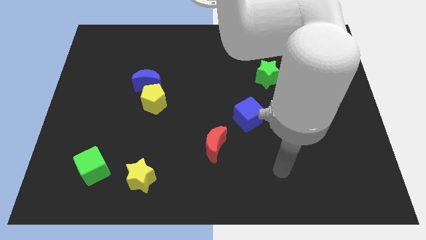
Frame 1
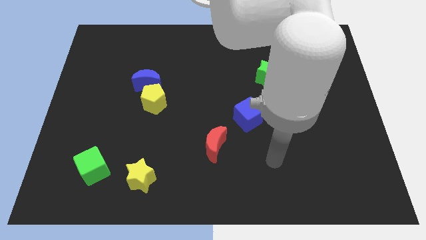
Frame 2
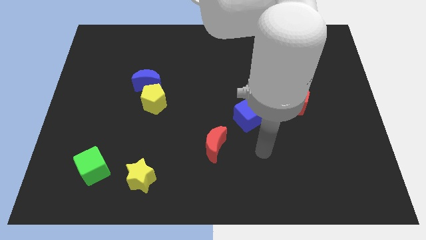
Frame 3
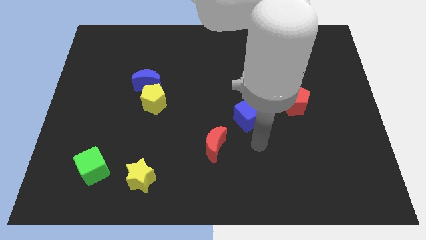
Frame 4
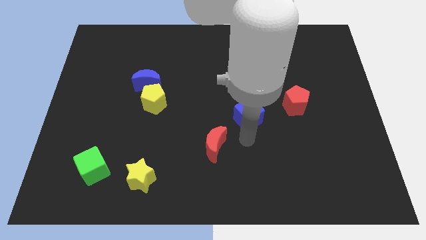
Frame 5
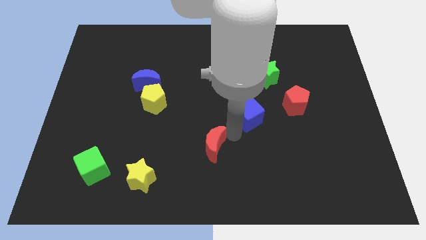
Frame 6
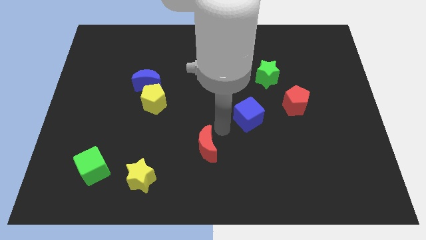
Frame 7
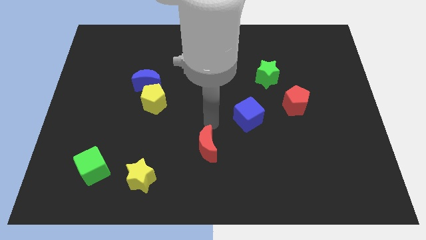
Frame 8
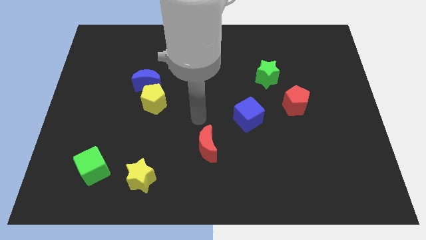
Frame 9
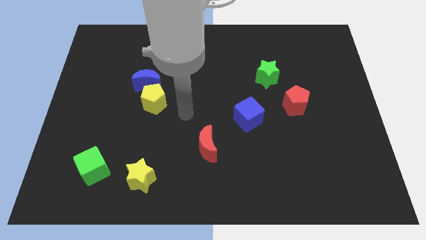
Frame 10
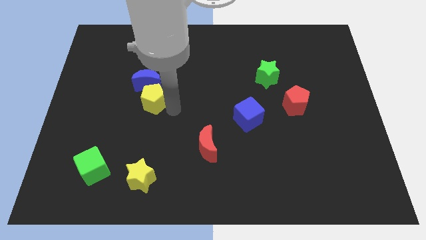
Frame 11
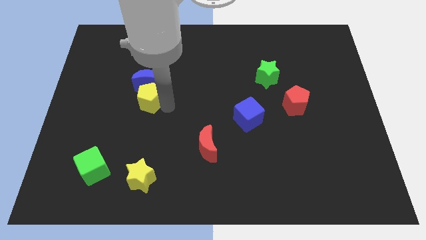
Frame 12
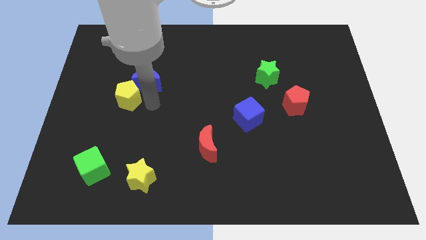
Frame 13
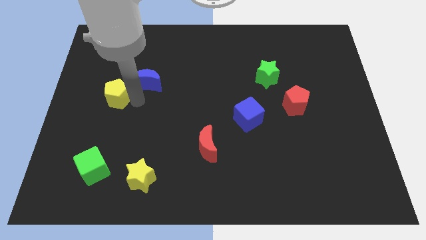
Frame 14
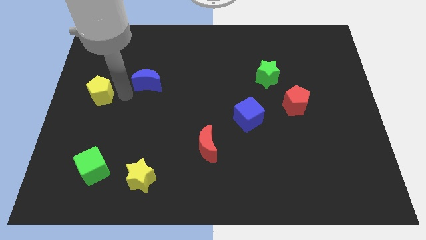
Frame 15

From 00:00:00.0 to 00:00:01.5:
separate the blue moon from the yellow pentagon

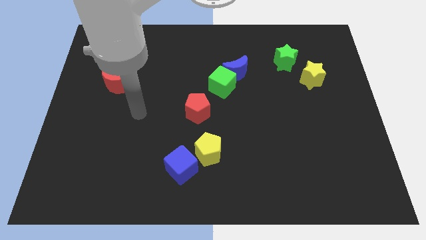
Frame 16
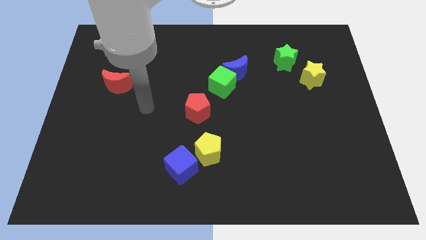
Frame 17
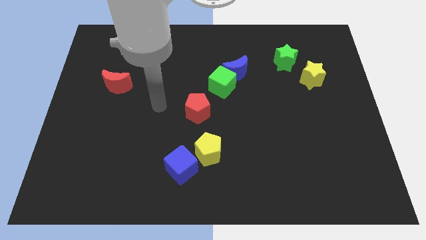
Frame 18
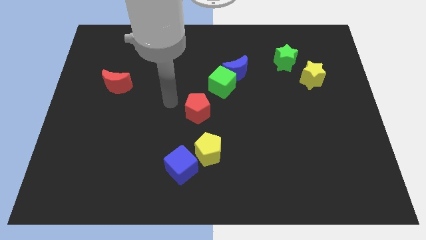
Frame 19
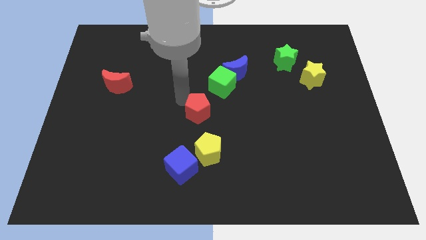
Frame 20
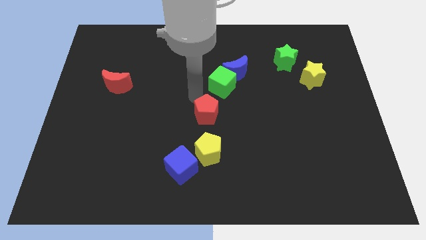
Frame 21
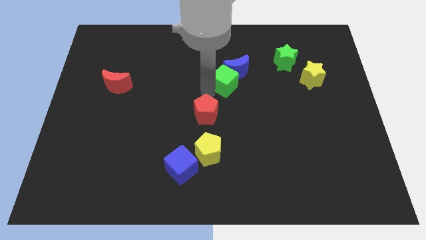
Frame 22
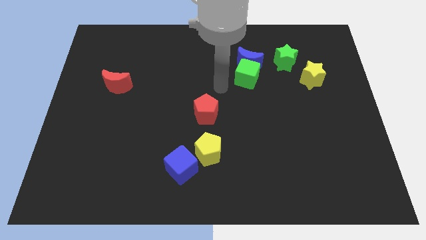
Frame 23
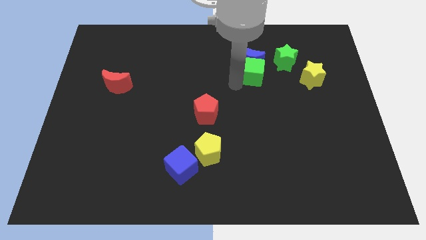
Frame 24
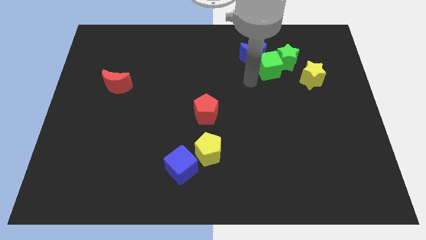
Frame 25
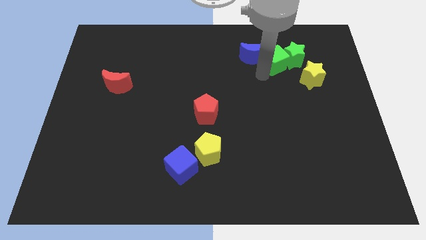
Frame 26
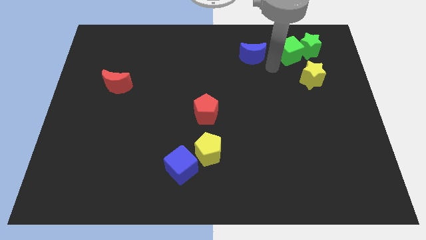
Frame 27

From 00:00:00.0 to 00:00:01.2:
separate the blue moon from the green cube

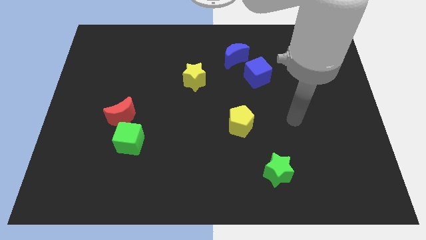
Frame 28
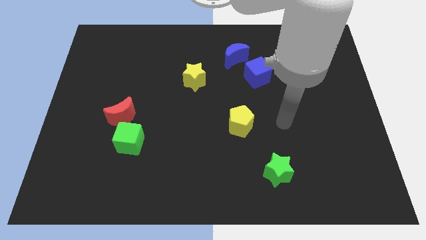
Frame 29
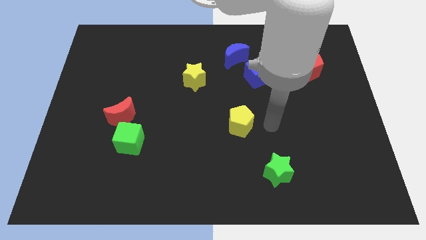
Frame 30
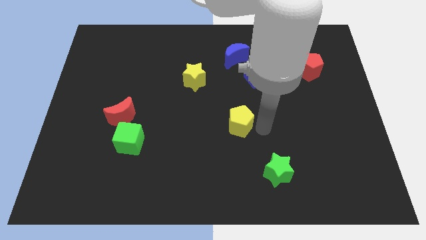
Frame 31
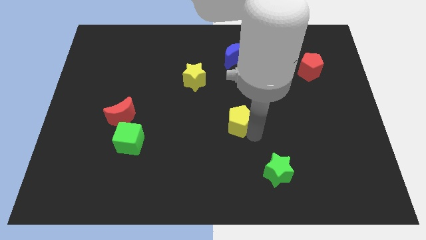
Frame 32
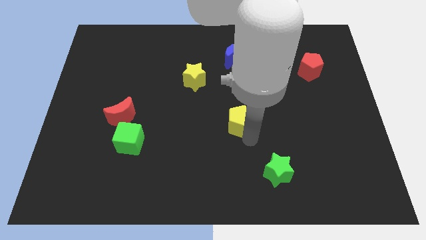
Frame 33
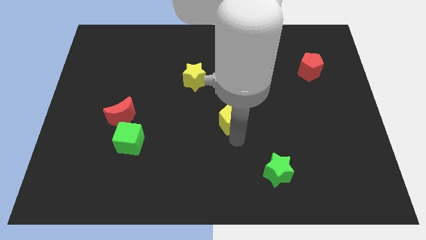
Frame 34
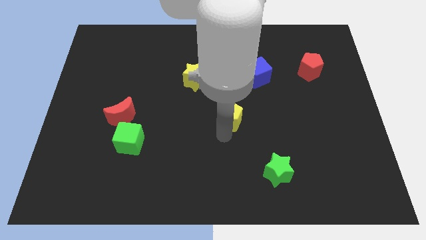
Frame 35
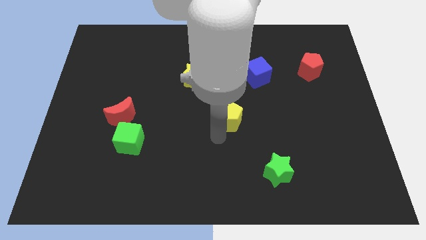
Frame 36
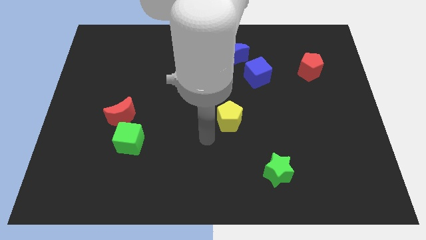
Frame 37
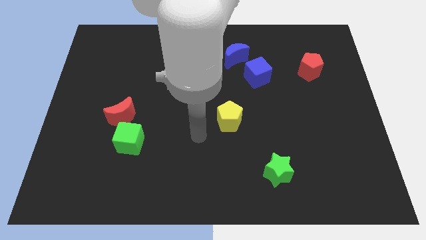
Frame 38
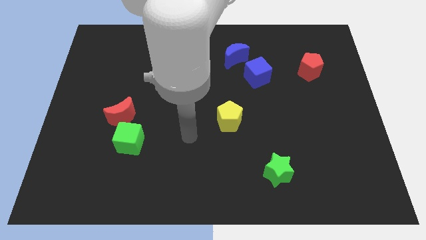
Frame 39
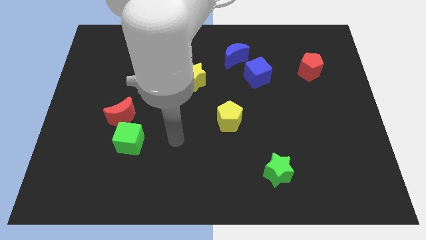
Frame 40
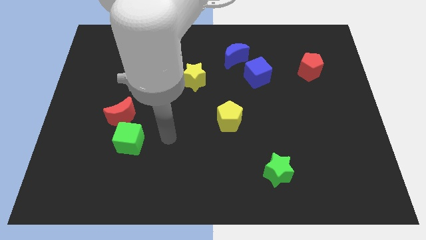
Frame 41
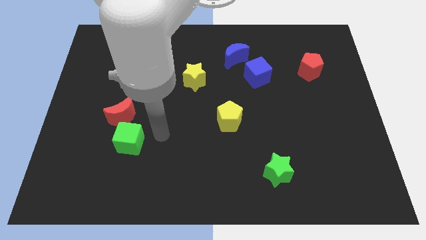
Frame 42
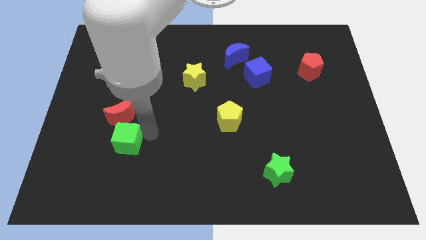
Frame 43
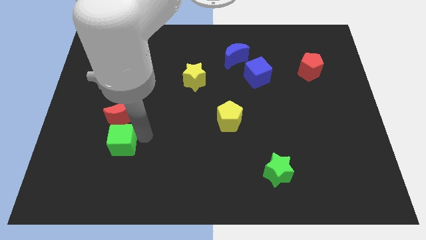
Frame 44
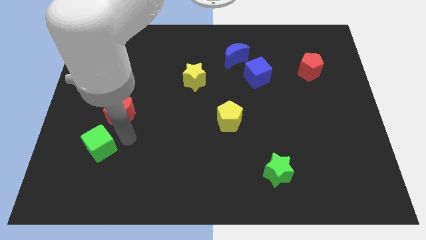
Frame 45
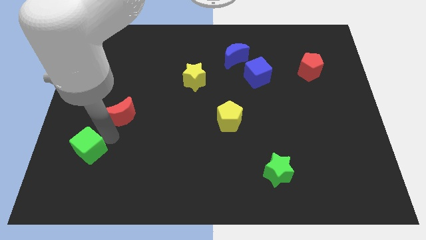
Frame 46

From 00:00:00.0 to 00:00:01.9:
move the red moon away from the green cube

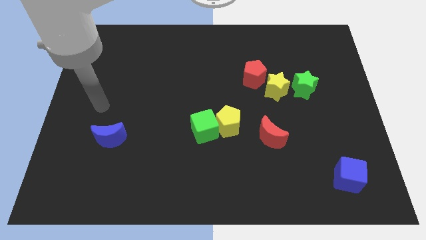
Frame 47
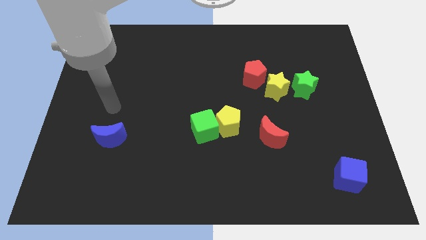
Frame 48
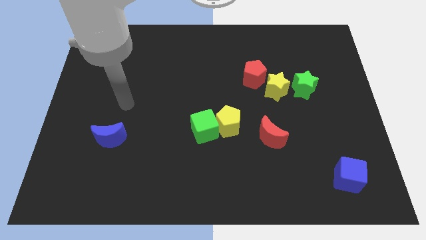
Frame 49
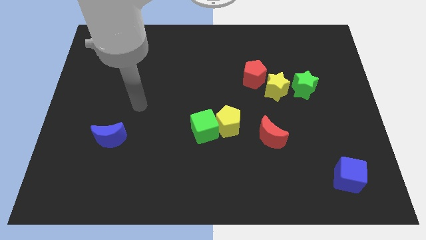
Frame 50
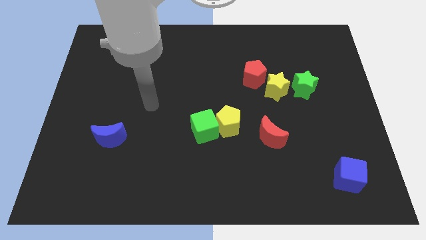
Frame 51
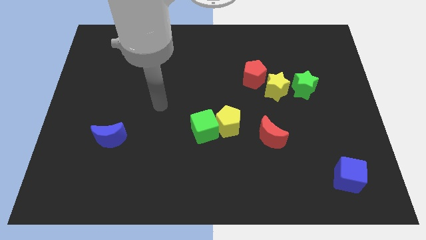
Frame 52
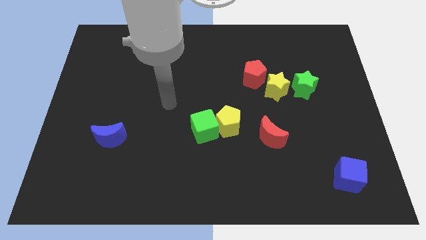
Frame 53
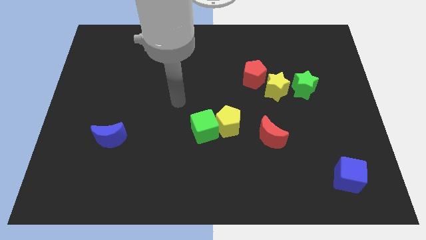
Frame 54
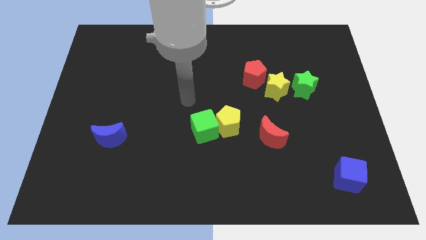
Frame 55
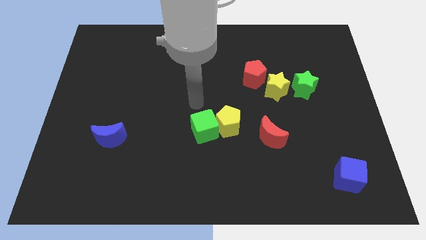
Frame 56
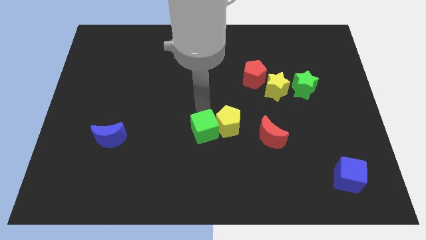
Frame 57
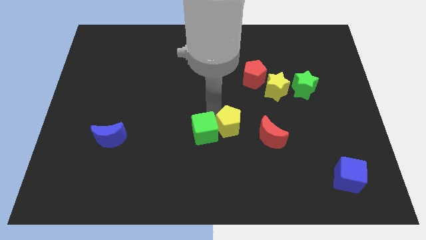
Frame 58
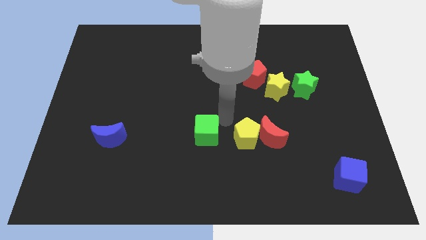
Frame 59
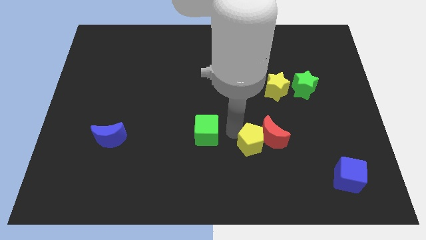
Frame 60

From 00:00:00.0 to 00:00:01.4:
separate the green cube from the yellow pentagon

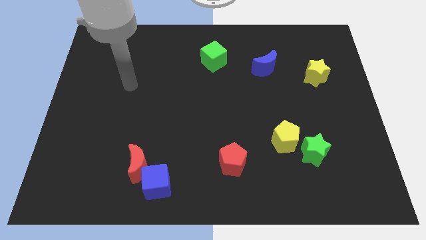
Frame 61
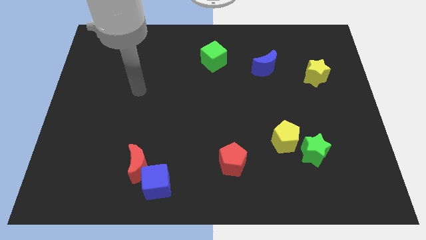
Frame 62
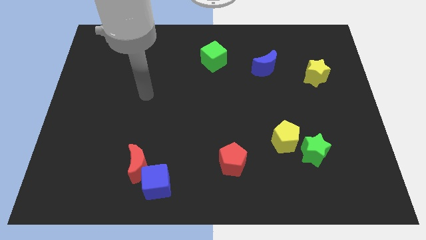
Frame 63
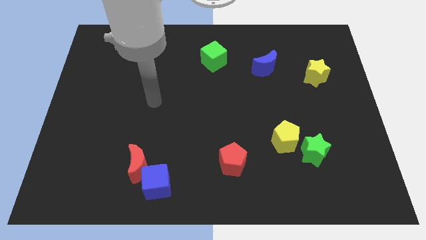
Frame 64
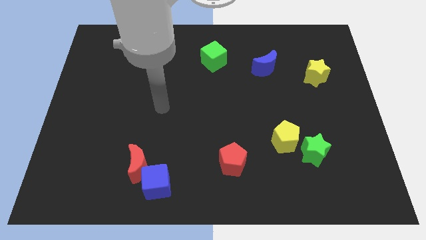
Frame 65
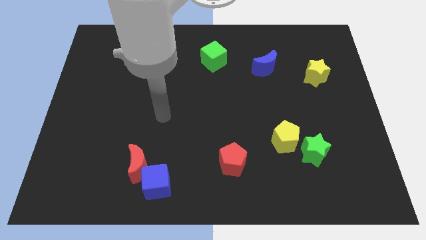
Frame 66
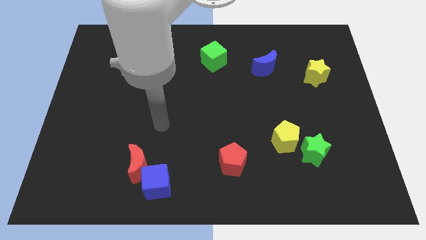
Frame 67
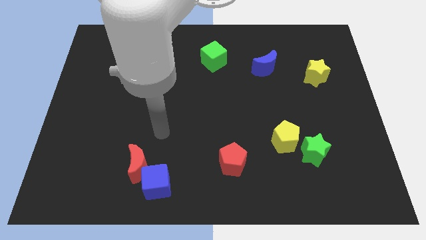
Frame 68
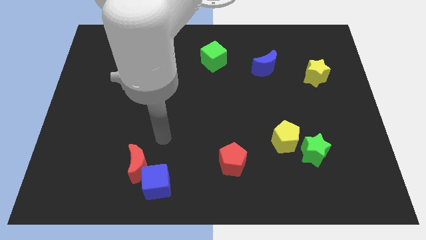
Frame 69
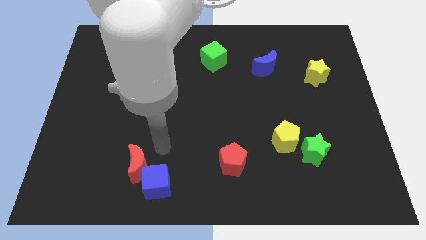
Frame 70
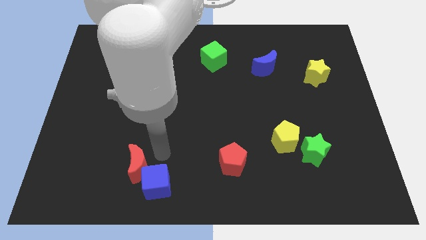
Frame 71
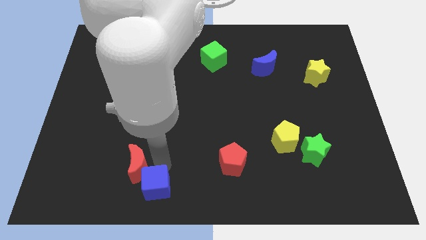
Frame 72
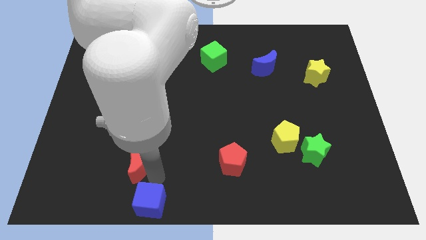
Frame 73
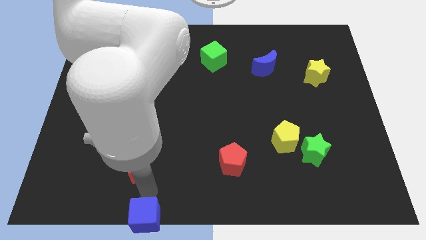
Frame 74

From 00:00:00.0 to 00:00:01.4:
separate the red moon from the blue cube

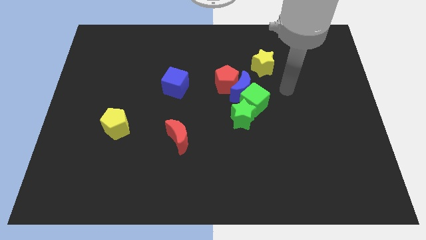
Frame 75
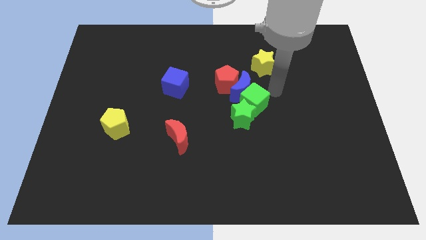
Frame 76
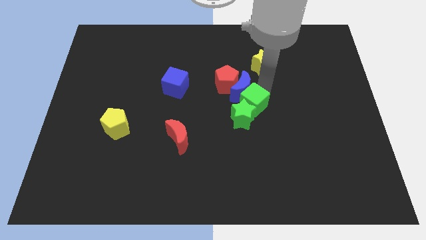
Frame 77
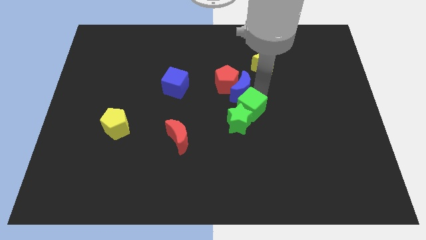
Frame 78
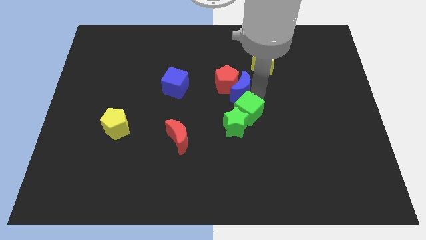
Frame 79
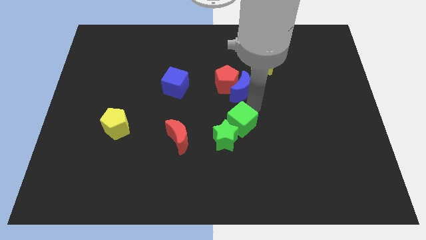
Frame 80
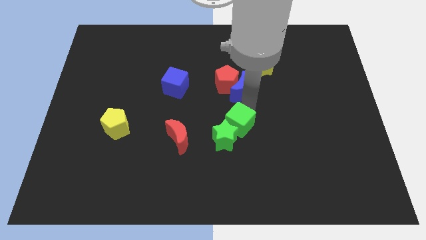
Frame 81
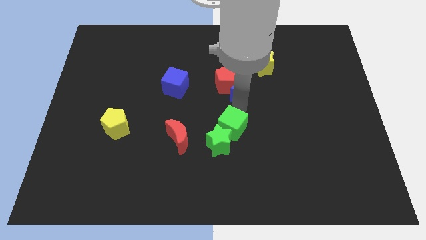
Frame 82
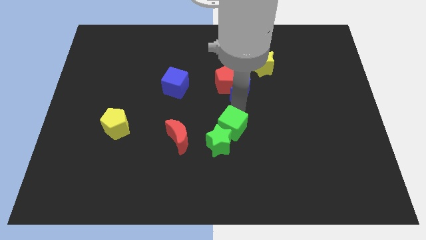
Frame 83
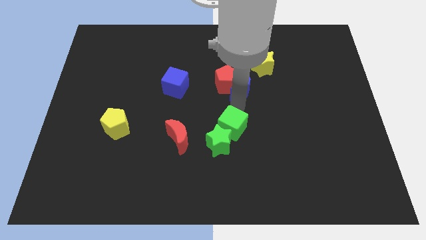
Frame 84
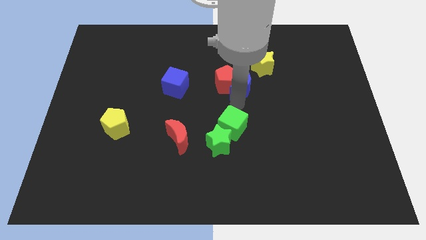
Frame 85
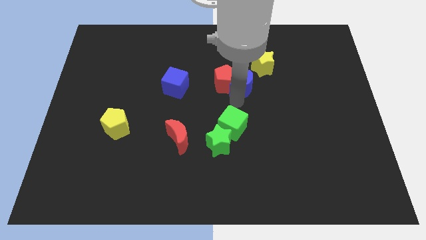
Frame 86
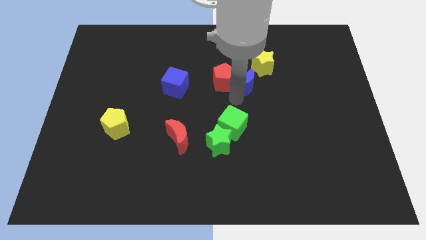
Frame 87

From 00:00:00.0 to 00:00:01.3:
move the blue moon away from the clump

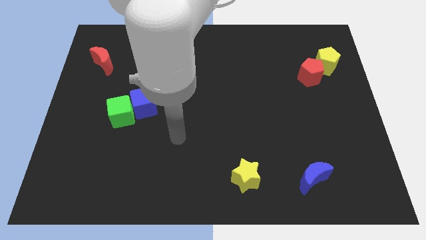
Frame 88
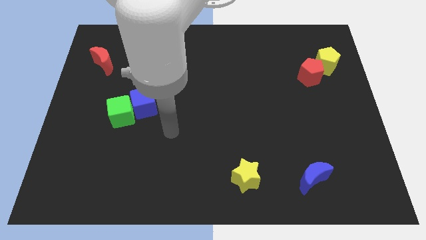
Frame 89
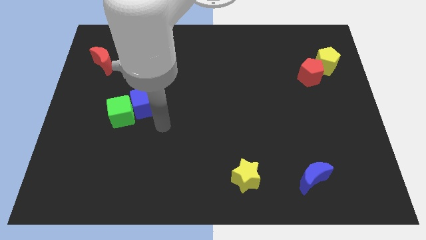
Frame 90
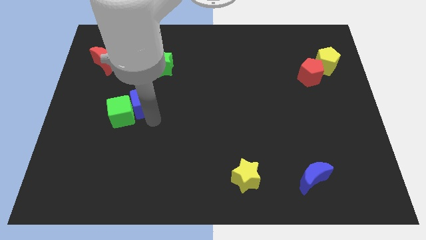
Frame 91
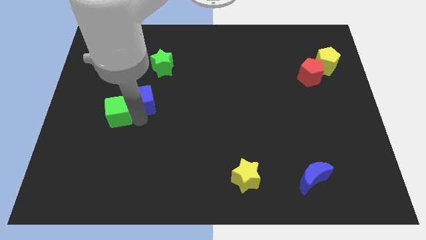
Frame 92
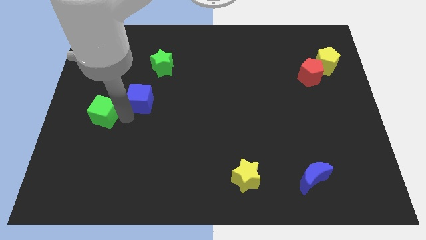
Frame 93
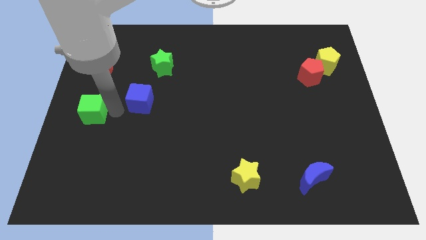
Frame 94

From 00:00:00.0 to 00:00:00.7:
pull the blue cube apart from the green cube
